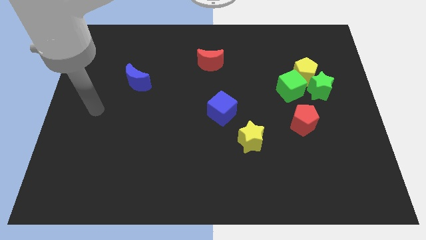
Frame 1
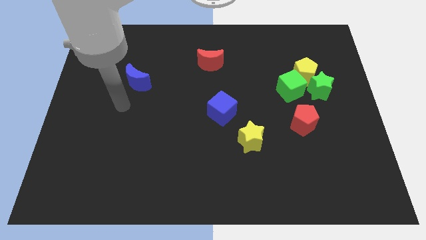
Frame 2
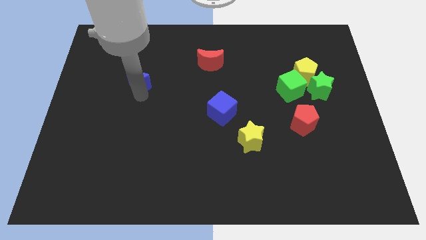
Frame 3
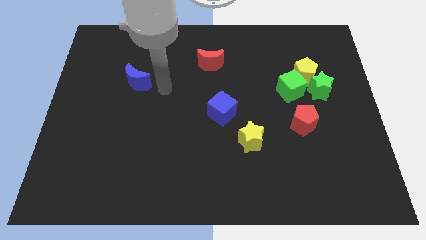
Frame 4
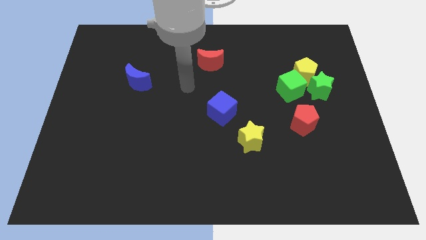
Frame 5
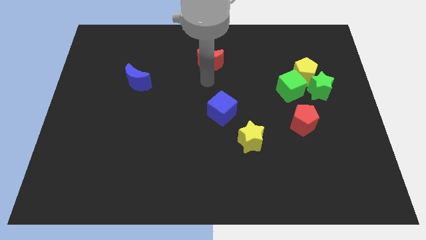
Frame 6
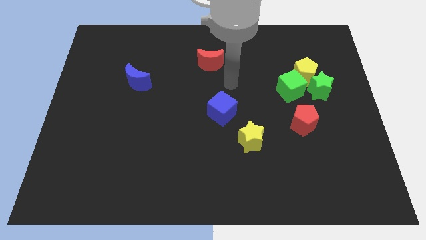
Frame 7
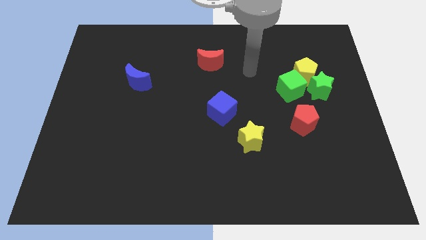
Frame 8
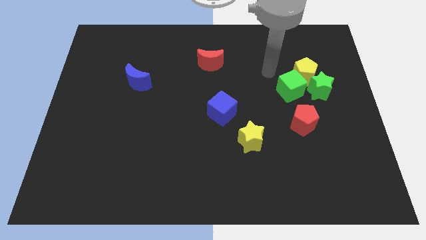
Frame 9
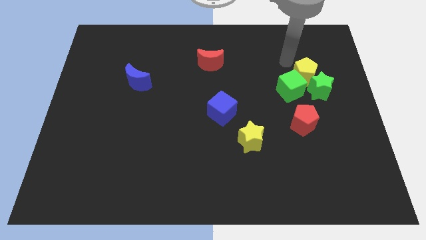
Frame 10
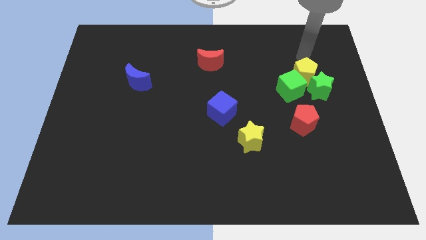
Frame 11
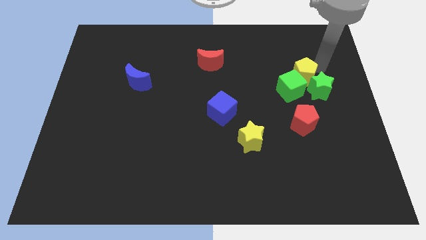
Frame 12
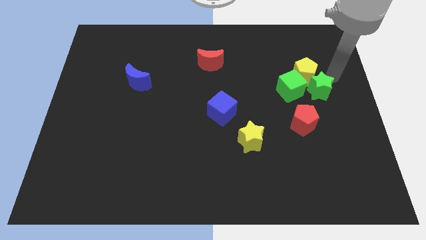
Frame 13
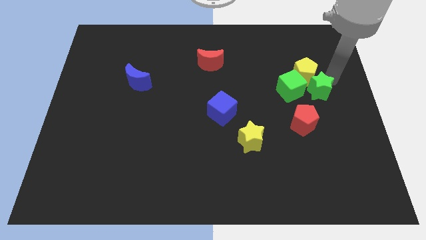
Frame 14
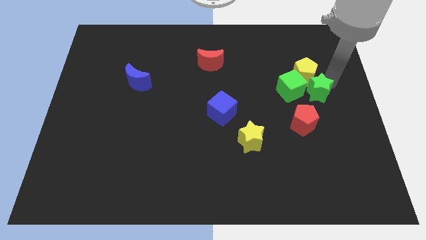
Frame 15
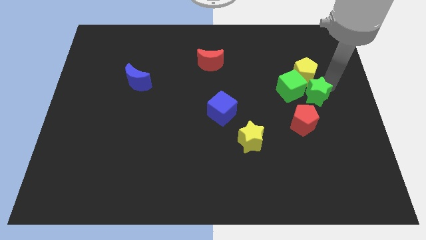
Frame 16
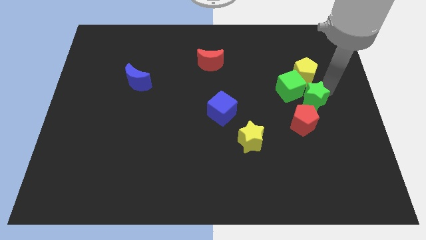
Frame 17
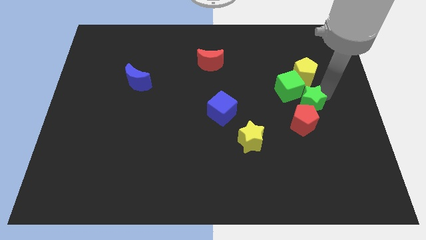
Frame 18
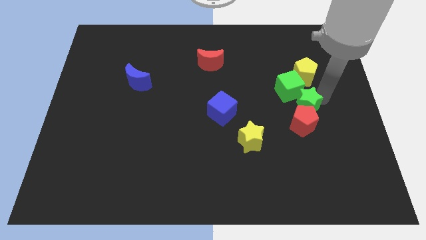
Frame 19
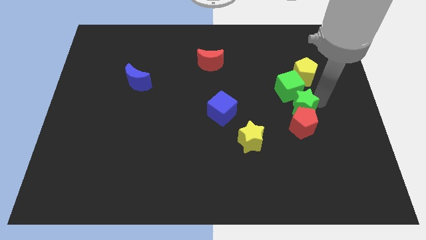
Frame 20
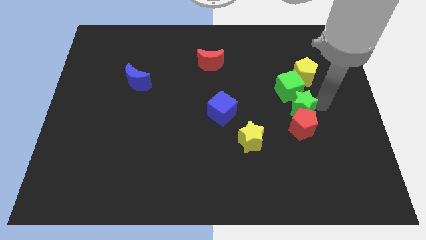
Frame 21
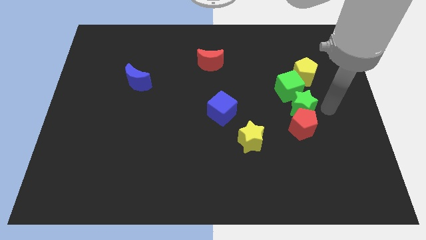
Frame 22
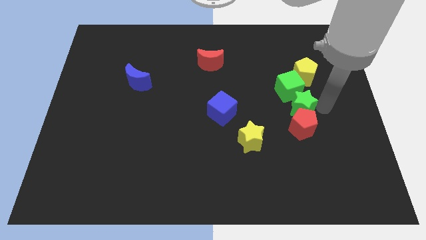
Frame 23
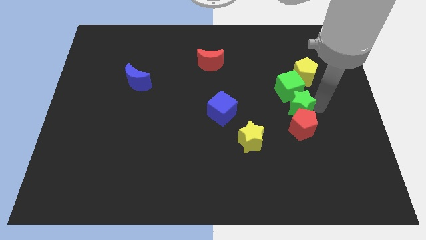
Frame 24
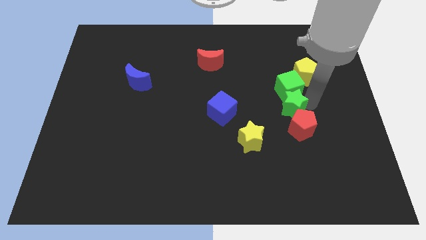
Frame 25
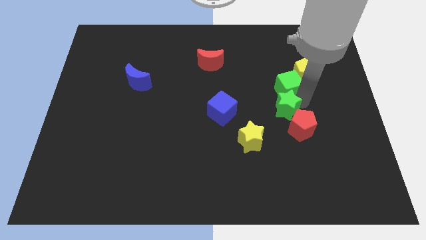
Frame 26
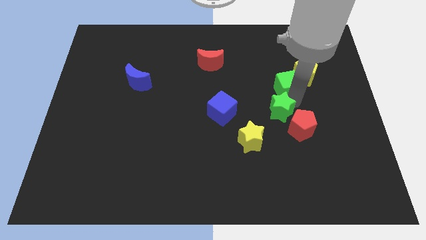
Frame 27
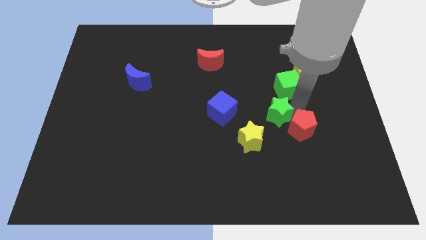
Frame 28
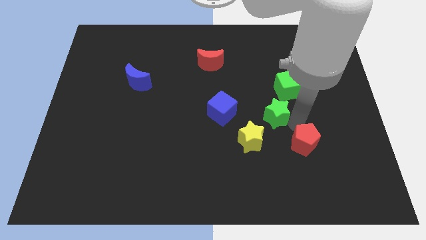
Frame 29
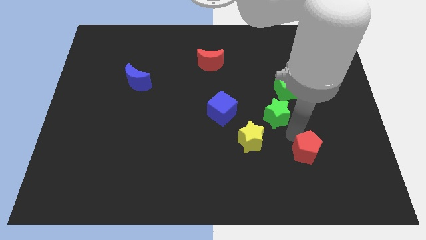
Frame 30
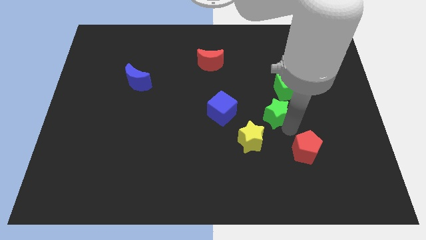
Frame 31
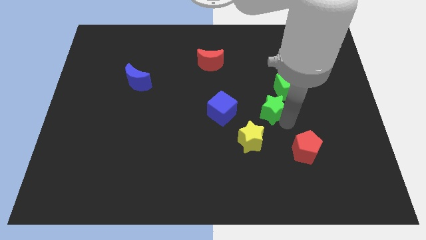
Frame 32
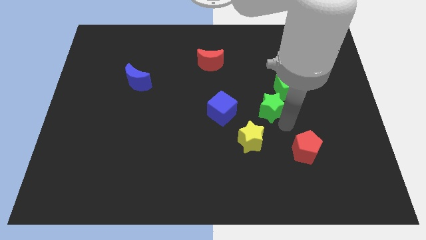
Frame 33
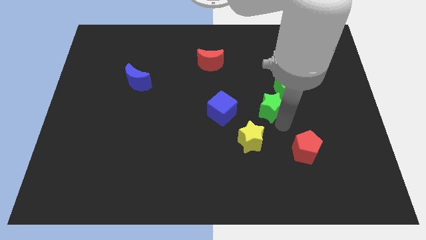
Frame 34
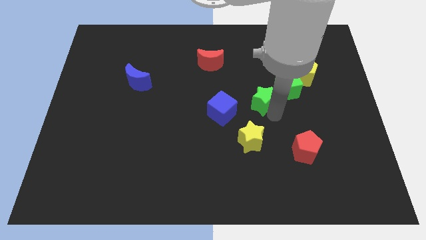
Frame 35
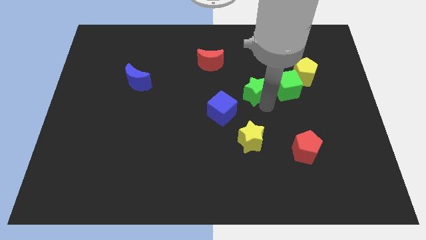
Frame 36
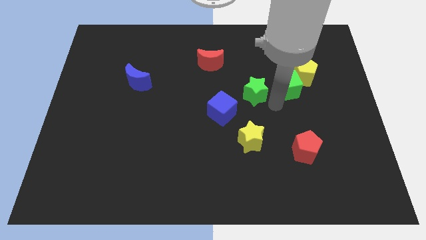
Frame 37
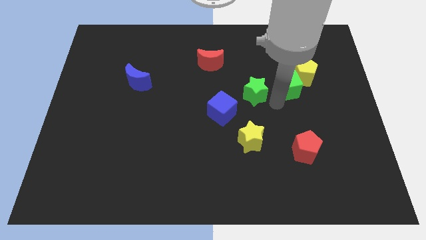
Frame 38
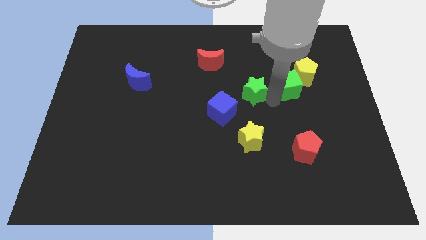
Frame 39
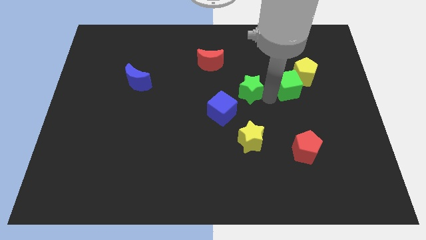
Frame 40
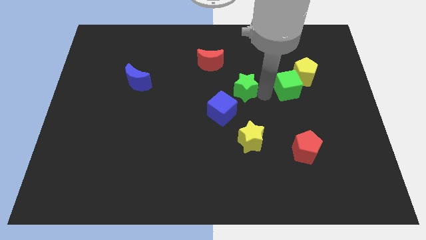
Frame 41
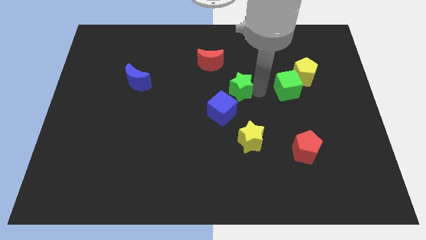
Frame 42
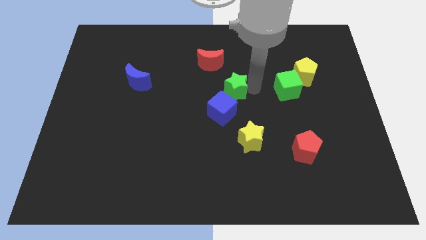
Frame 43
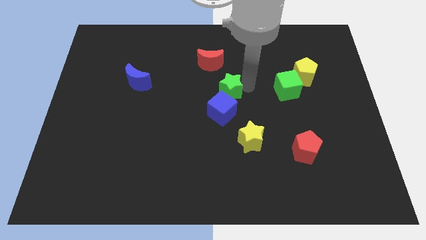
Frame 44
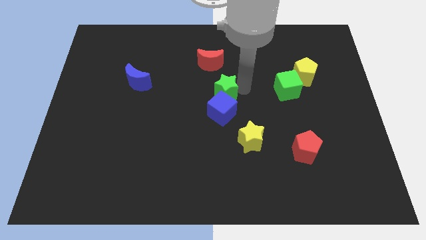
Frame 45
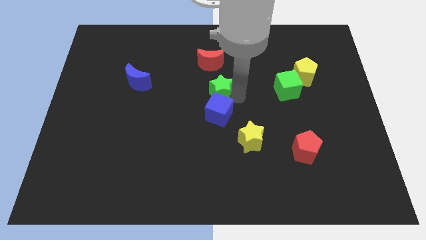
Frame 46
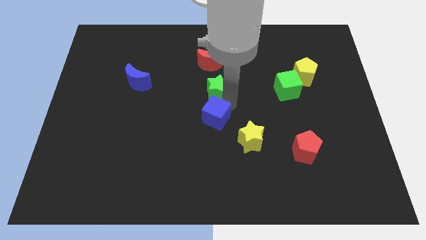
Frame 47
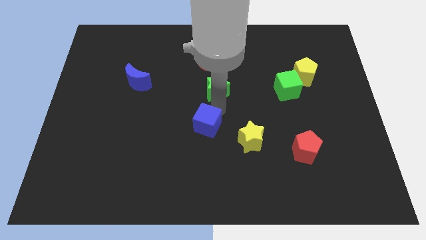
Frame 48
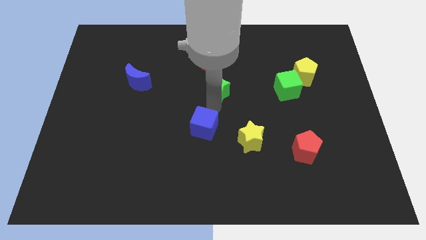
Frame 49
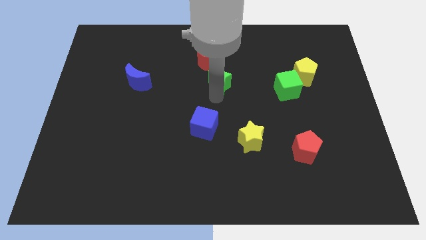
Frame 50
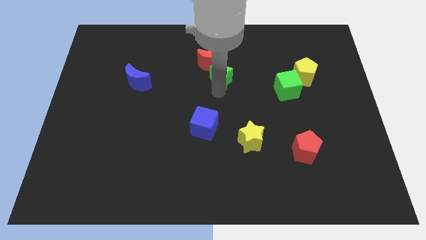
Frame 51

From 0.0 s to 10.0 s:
push the green star towards the red moon

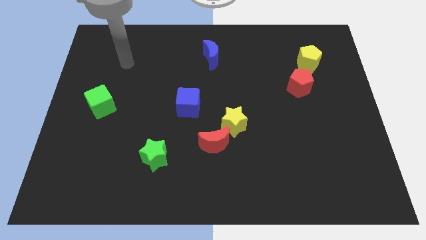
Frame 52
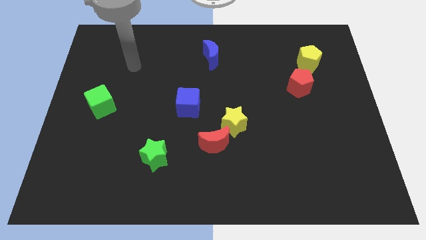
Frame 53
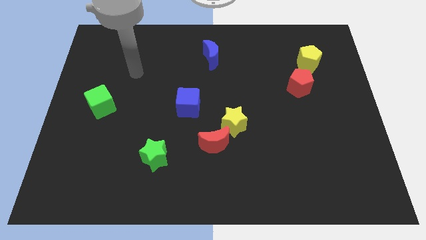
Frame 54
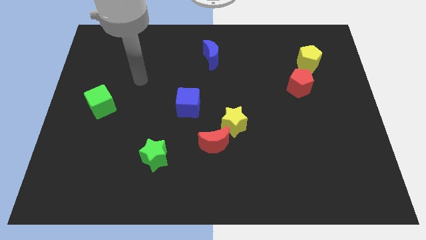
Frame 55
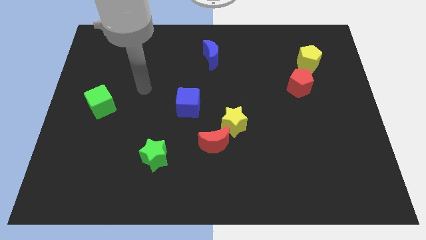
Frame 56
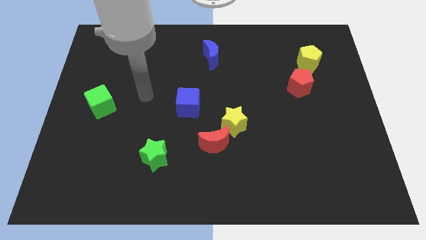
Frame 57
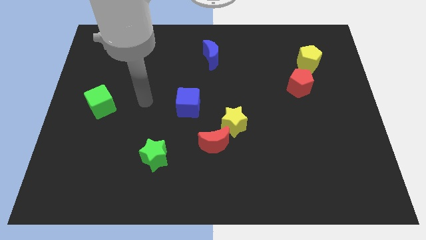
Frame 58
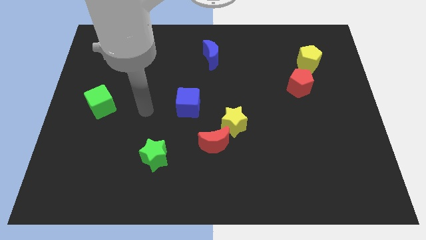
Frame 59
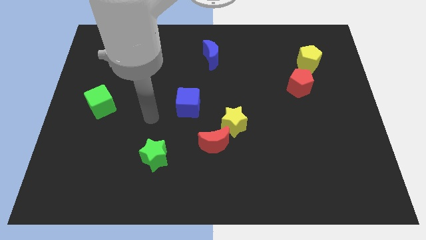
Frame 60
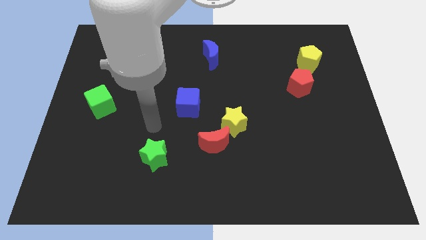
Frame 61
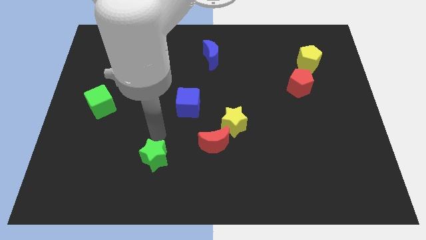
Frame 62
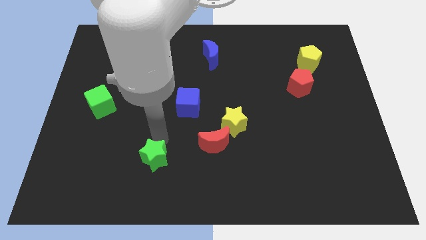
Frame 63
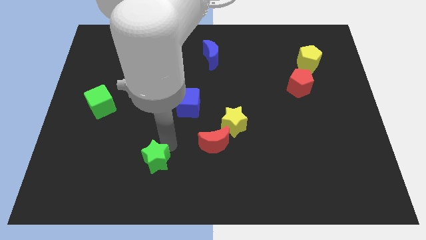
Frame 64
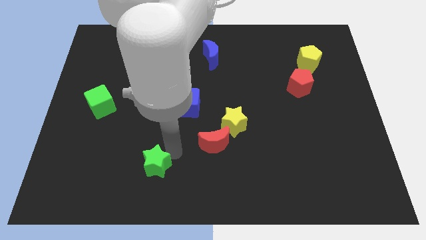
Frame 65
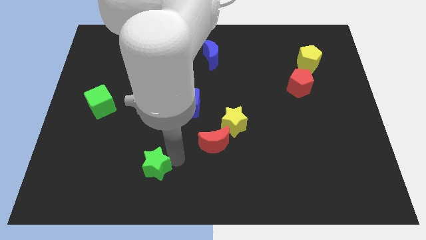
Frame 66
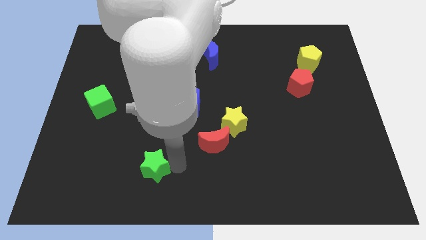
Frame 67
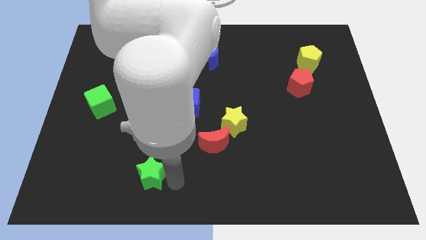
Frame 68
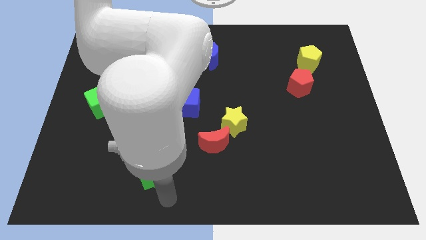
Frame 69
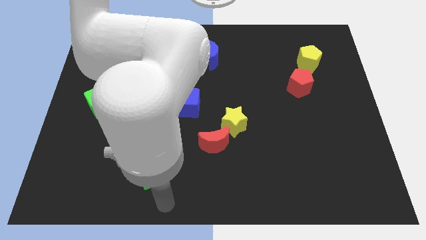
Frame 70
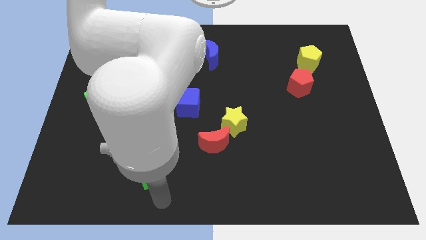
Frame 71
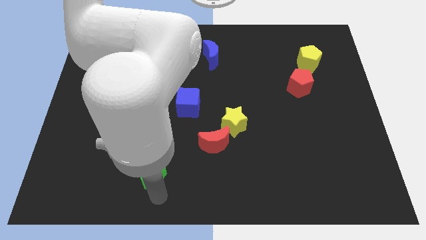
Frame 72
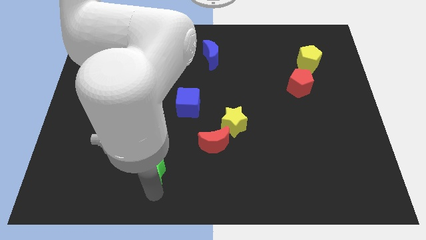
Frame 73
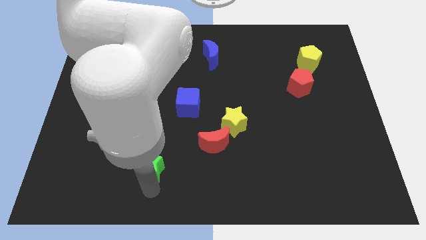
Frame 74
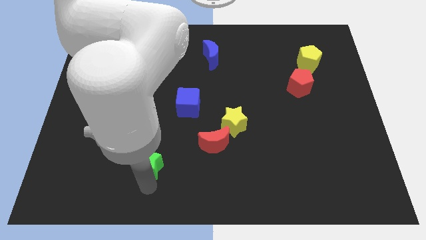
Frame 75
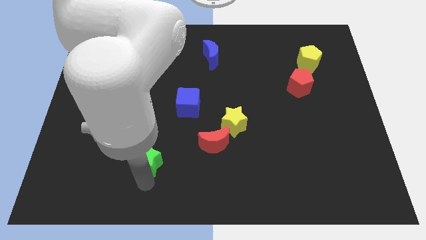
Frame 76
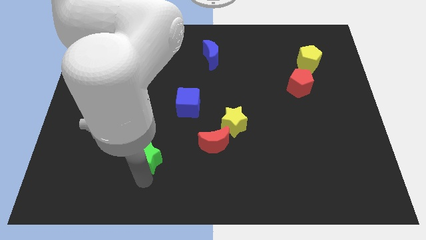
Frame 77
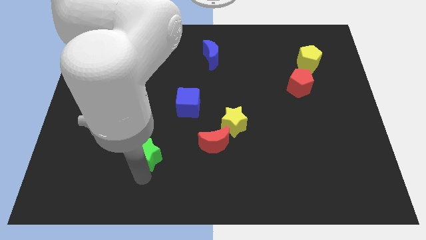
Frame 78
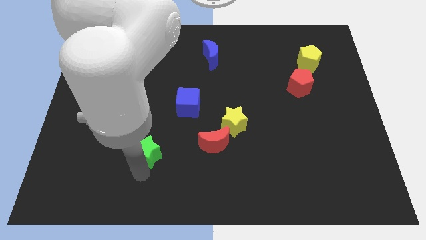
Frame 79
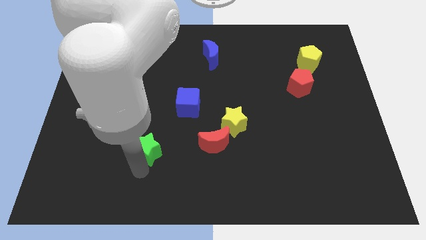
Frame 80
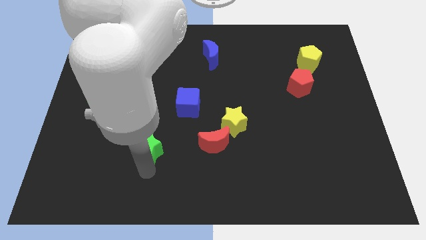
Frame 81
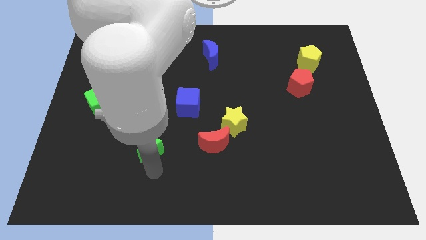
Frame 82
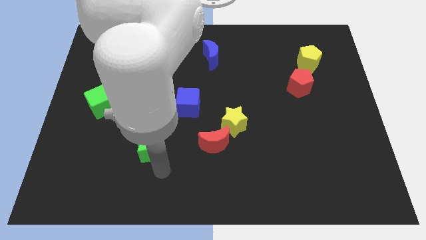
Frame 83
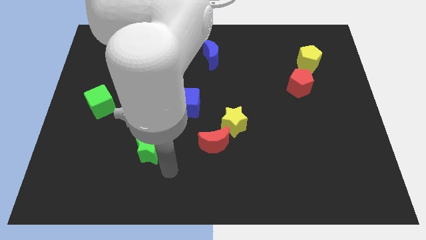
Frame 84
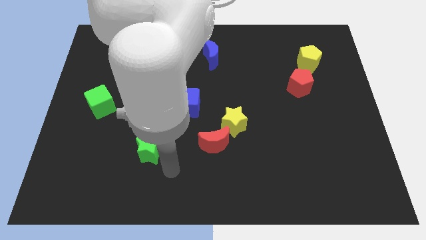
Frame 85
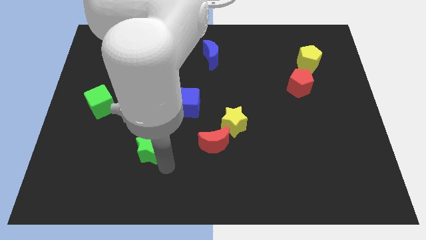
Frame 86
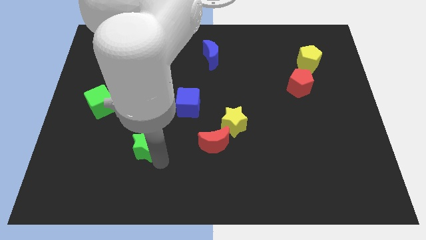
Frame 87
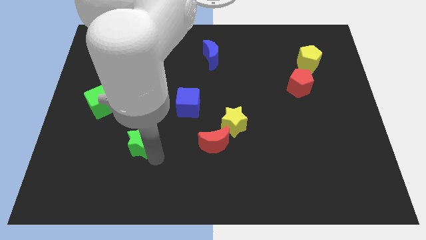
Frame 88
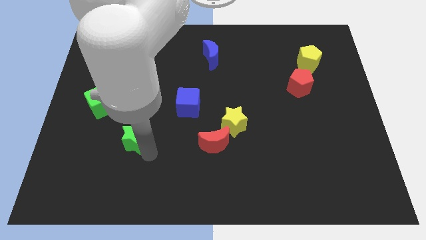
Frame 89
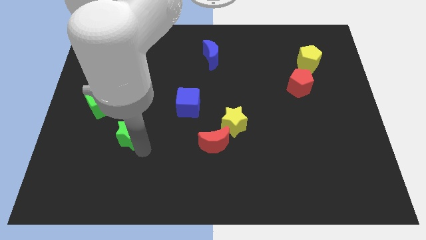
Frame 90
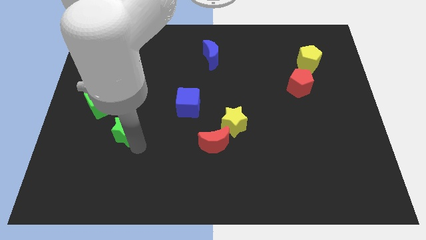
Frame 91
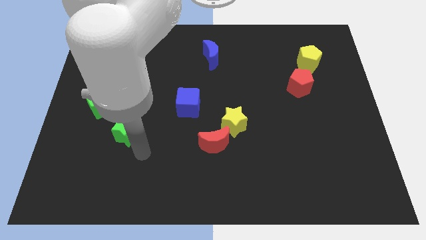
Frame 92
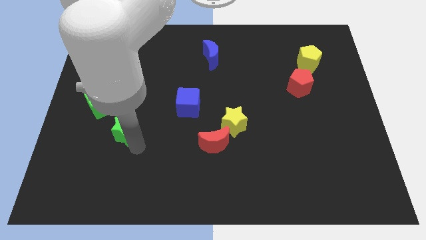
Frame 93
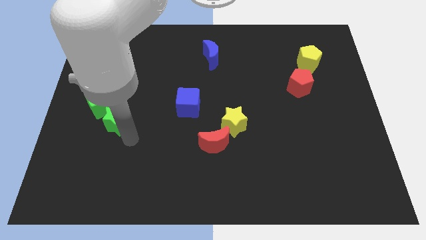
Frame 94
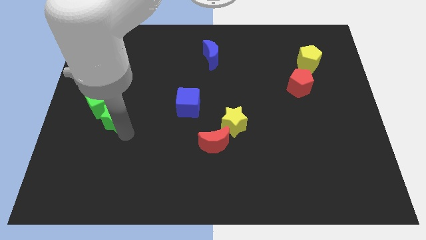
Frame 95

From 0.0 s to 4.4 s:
move the green star towards the green cube
